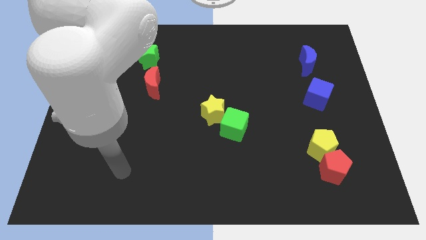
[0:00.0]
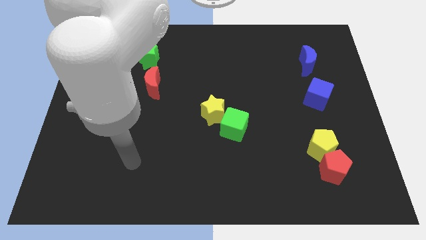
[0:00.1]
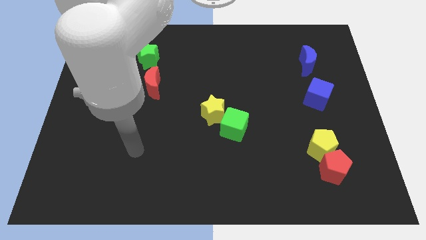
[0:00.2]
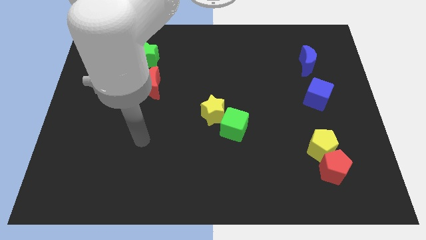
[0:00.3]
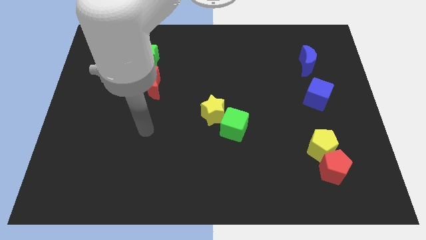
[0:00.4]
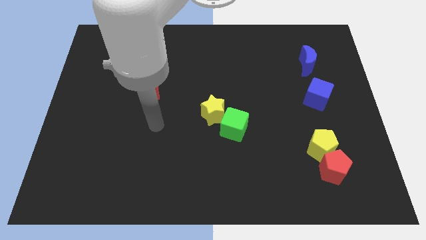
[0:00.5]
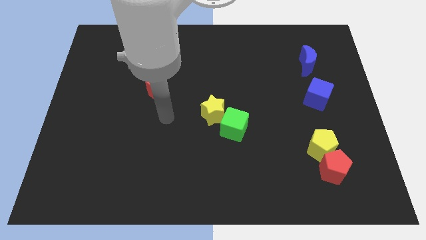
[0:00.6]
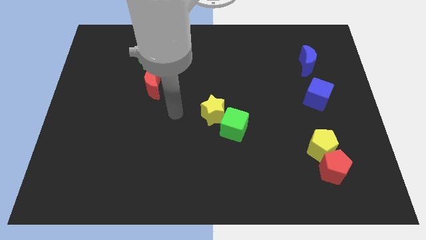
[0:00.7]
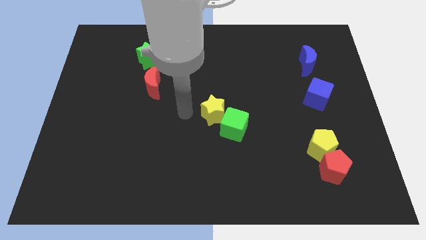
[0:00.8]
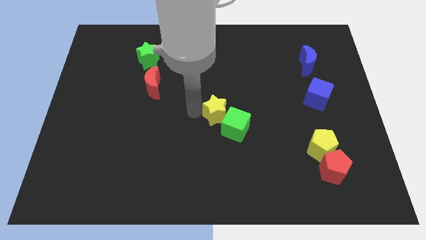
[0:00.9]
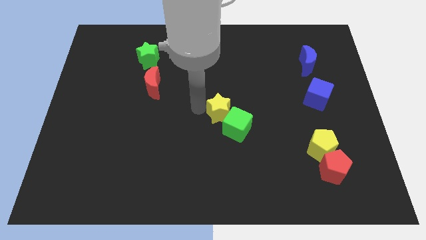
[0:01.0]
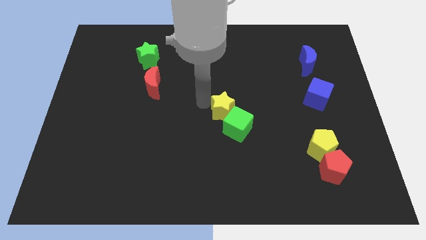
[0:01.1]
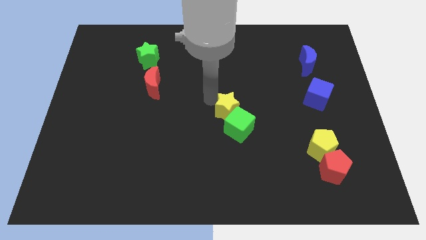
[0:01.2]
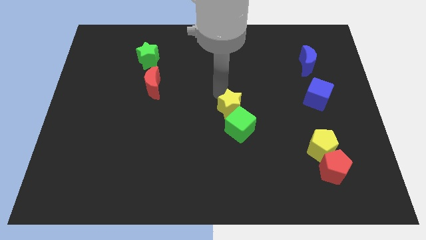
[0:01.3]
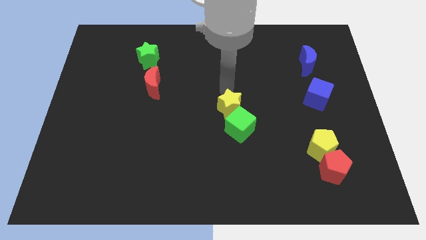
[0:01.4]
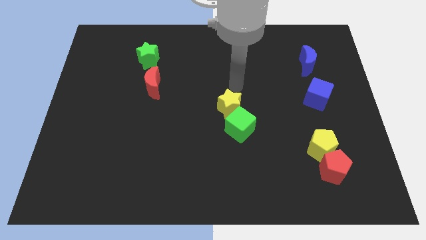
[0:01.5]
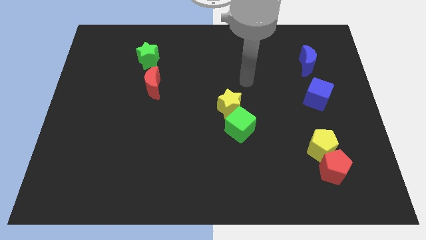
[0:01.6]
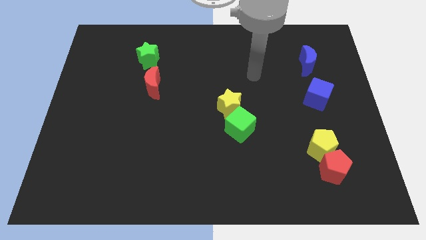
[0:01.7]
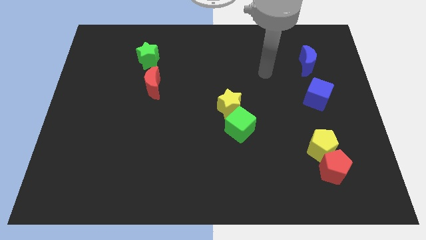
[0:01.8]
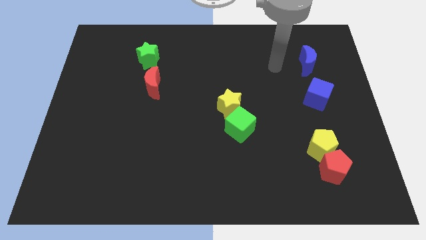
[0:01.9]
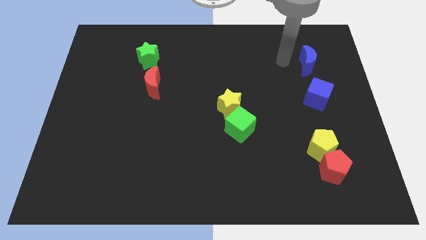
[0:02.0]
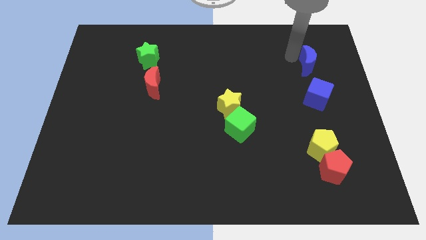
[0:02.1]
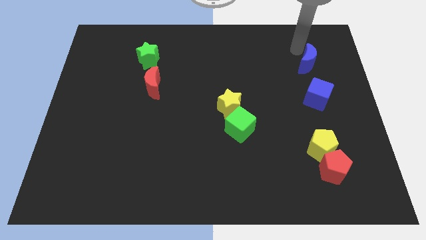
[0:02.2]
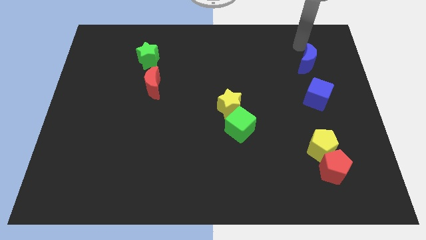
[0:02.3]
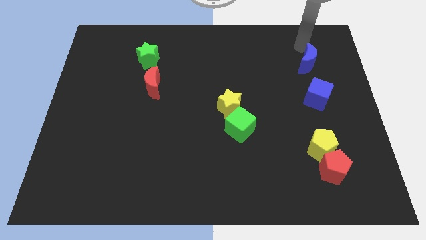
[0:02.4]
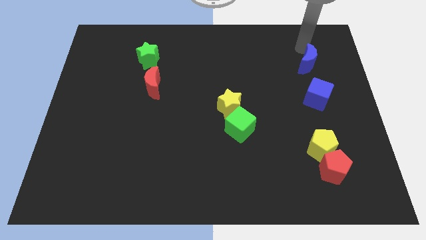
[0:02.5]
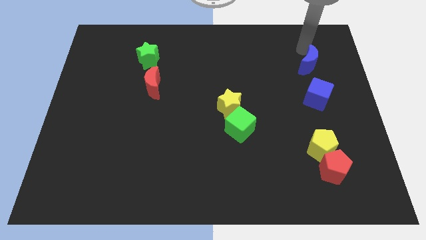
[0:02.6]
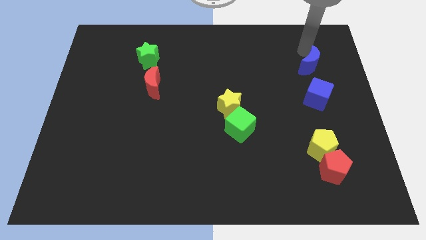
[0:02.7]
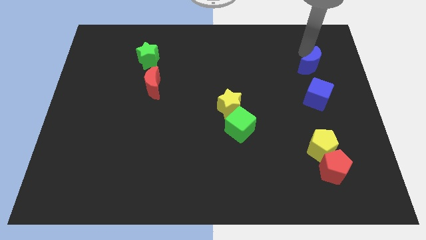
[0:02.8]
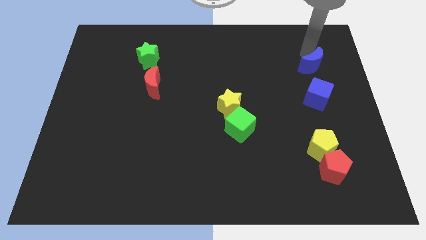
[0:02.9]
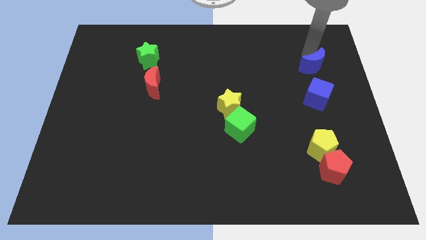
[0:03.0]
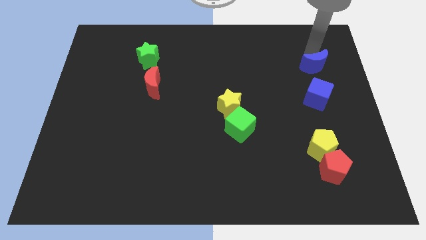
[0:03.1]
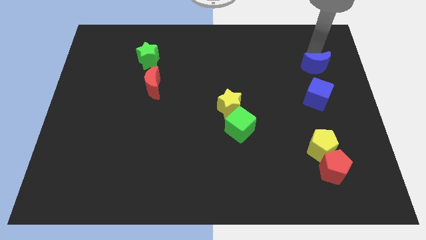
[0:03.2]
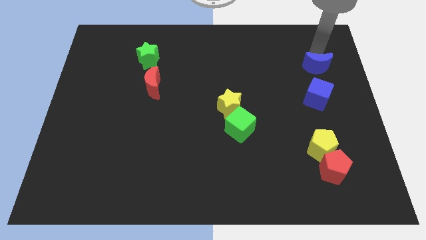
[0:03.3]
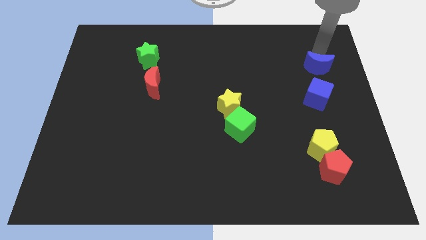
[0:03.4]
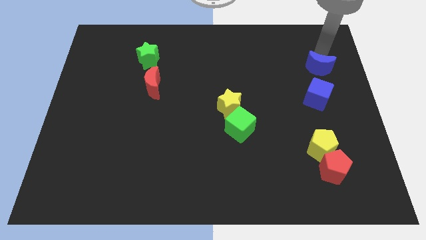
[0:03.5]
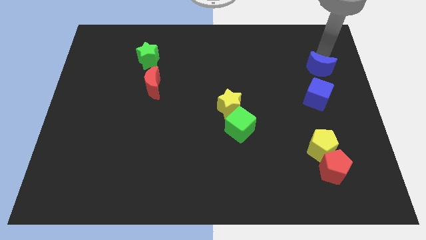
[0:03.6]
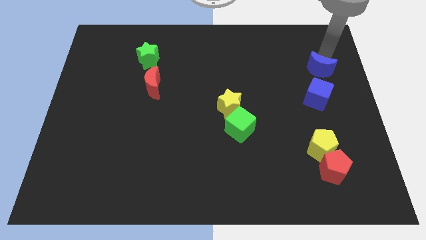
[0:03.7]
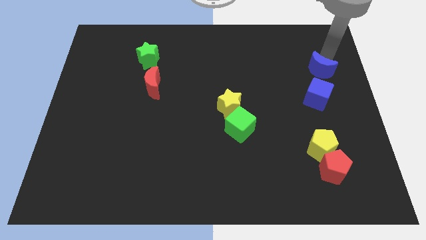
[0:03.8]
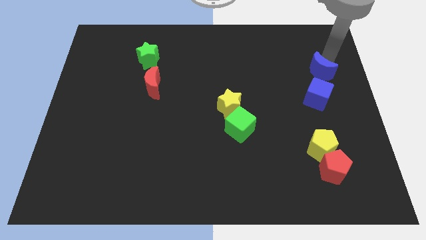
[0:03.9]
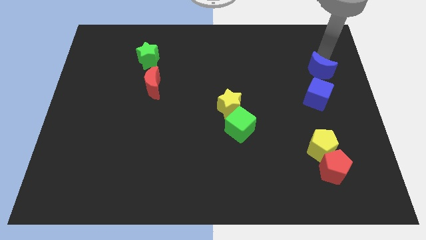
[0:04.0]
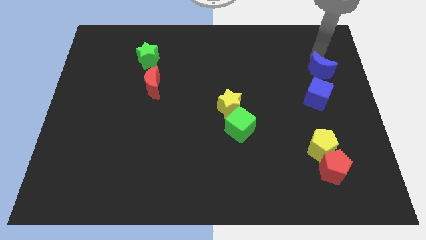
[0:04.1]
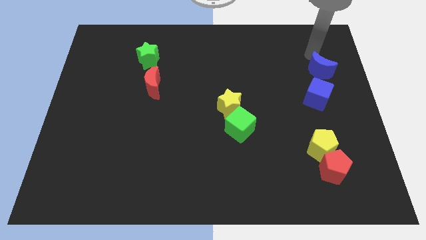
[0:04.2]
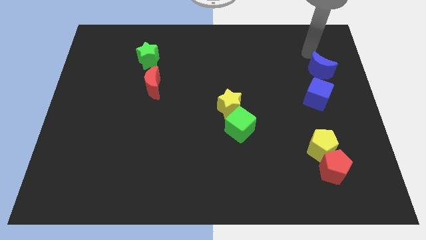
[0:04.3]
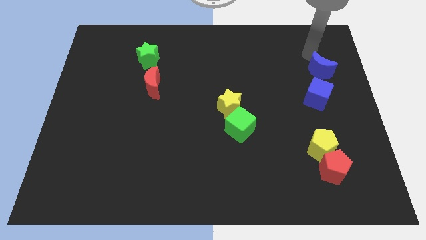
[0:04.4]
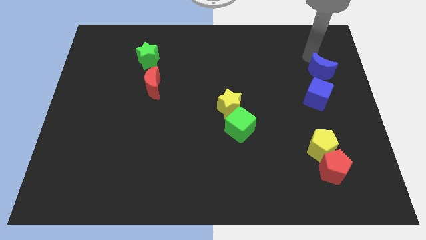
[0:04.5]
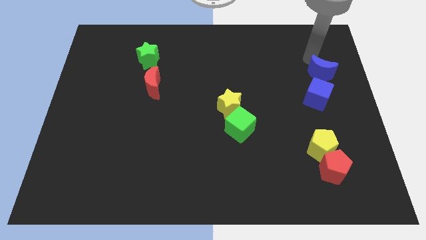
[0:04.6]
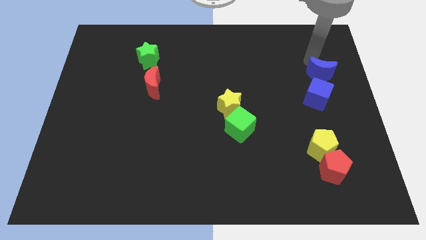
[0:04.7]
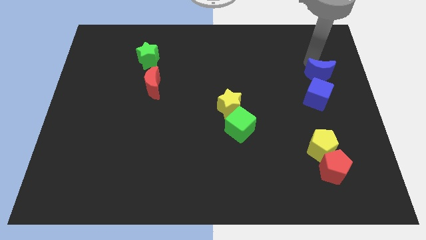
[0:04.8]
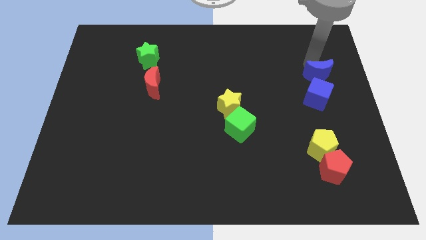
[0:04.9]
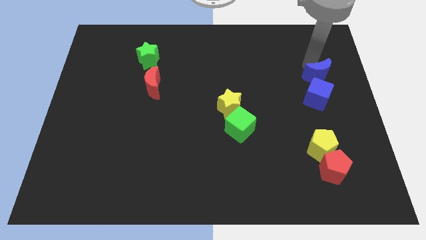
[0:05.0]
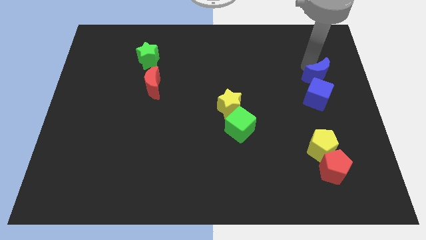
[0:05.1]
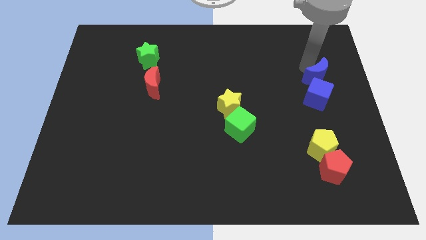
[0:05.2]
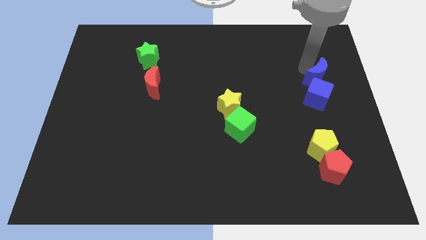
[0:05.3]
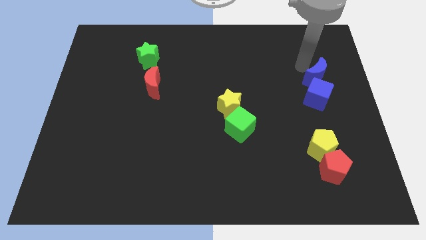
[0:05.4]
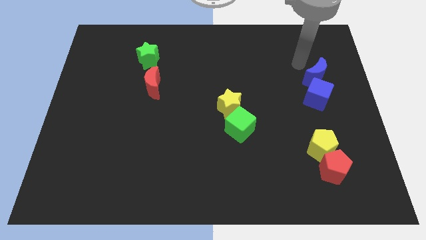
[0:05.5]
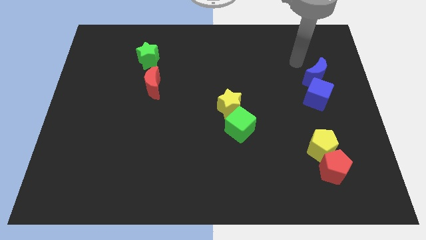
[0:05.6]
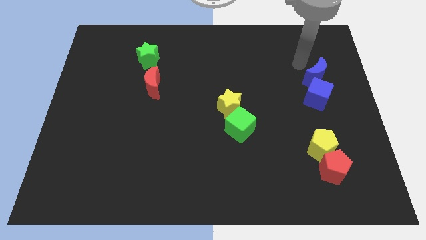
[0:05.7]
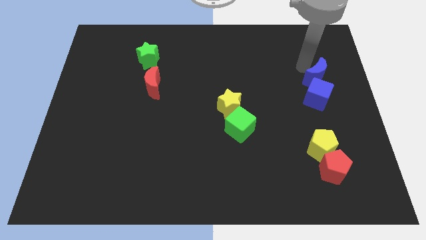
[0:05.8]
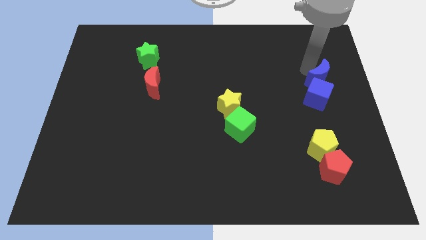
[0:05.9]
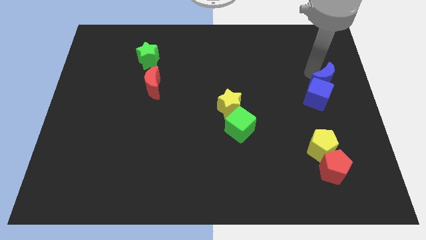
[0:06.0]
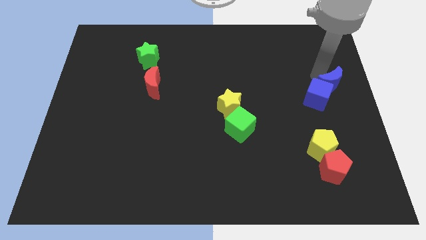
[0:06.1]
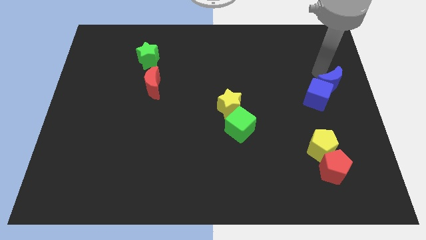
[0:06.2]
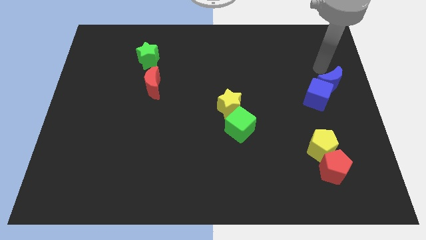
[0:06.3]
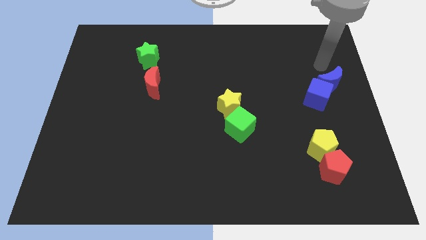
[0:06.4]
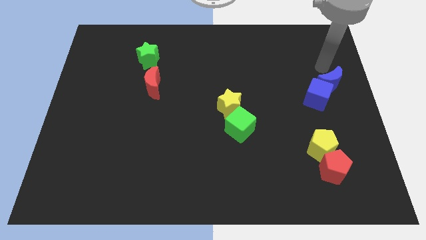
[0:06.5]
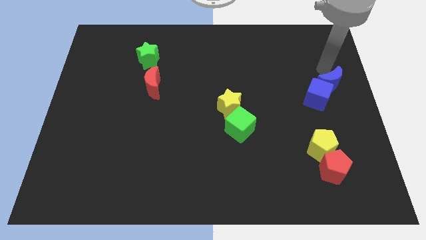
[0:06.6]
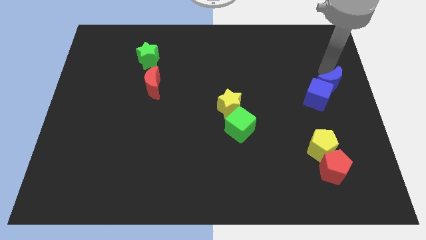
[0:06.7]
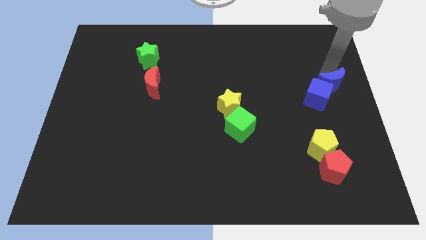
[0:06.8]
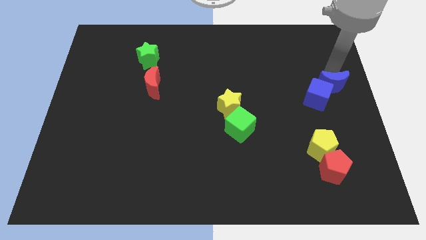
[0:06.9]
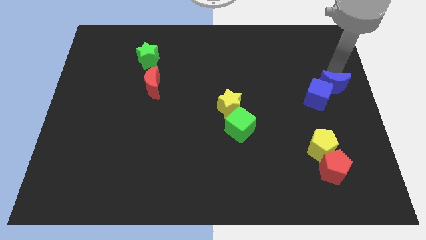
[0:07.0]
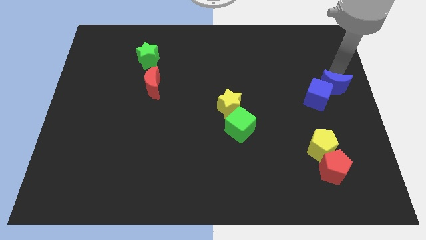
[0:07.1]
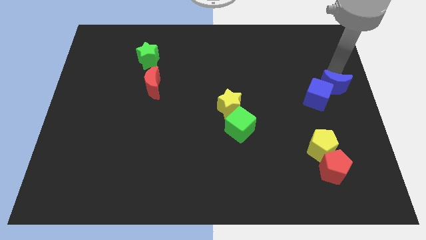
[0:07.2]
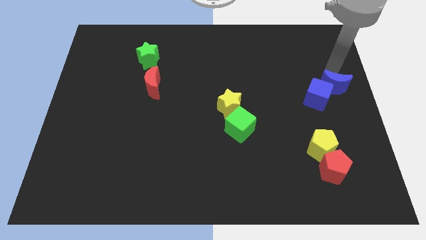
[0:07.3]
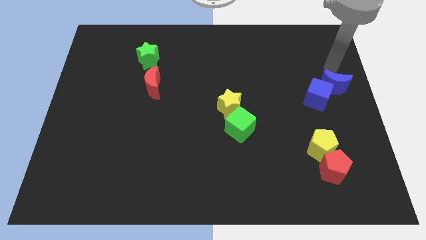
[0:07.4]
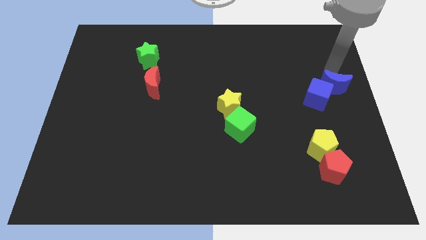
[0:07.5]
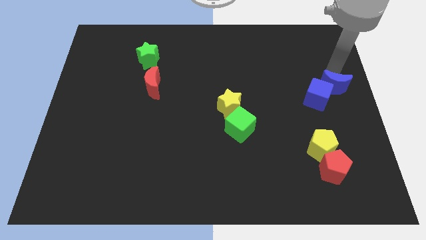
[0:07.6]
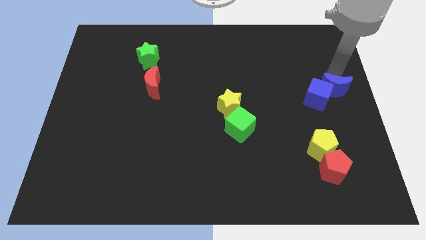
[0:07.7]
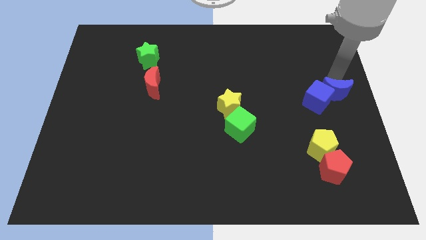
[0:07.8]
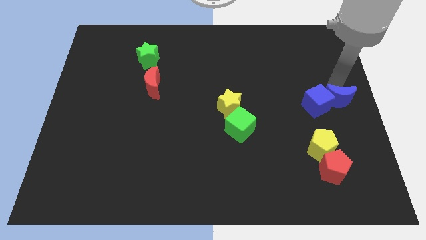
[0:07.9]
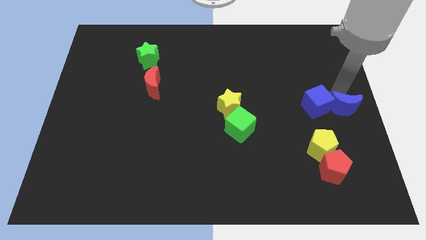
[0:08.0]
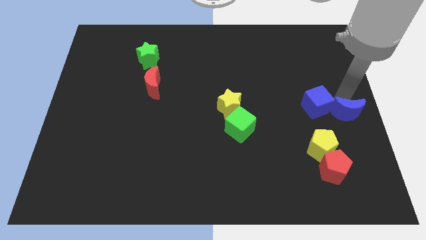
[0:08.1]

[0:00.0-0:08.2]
move the blue moon to the top right of the yellow pentagon
